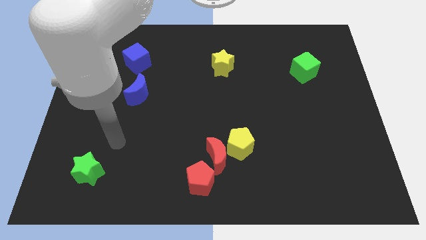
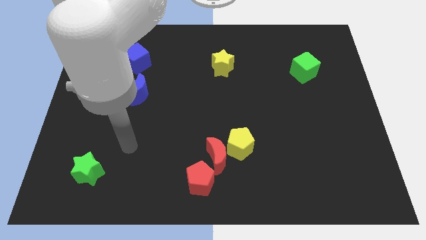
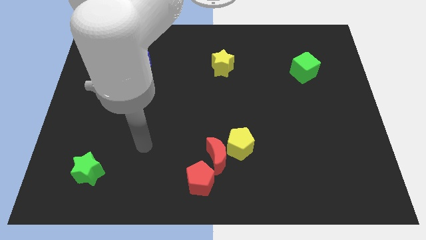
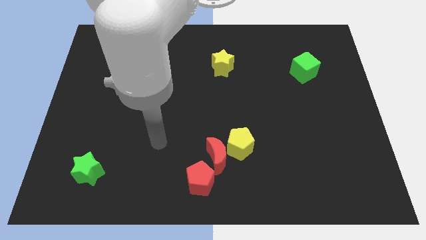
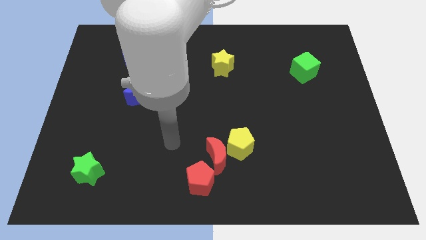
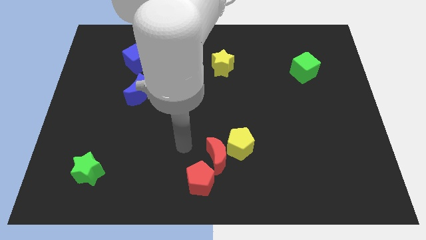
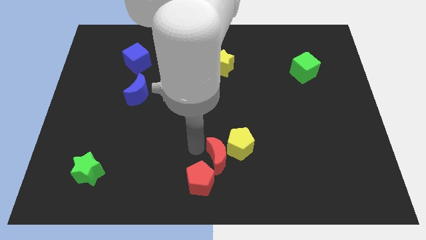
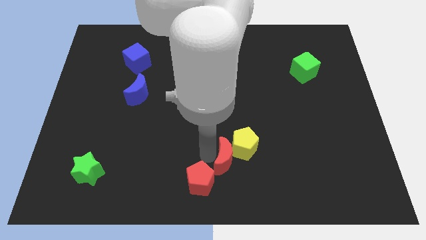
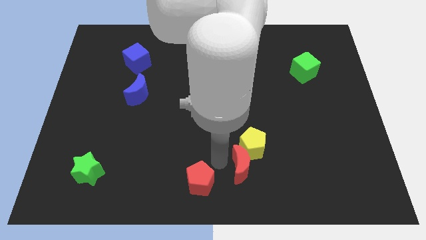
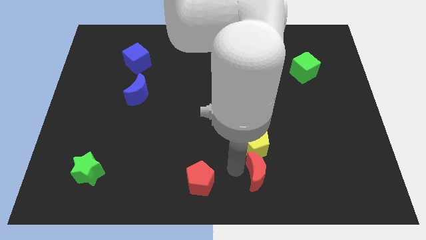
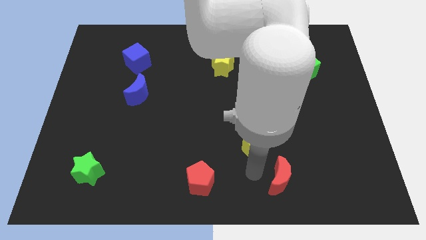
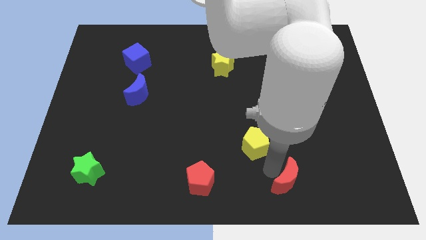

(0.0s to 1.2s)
pull the yellow pentagon apart from the red moon

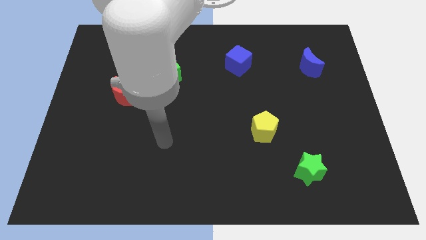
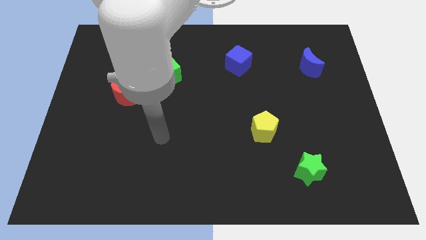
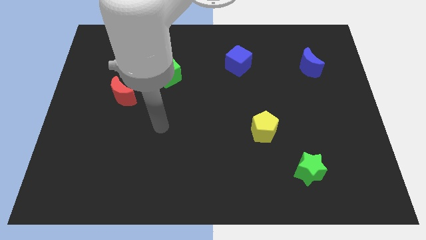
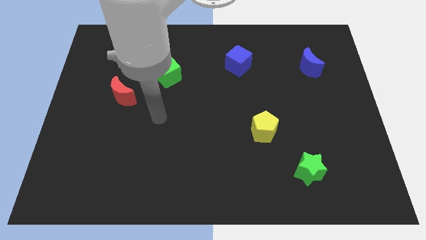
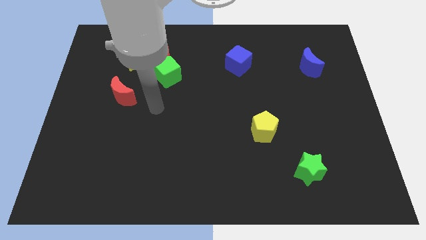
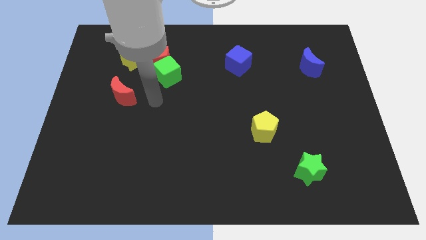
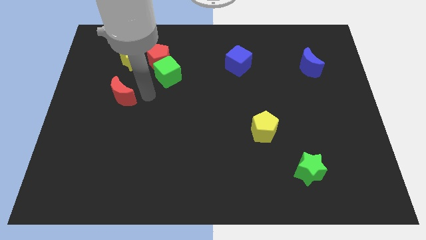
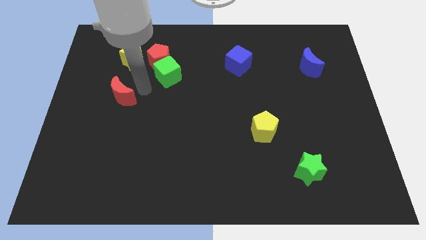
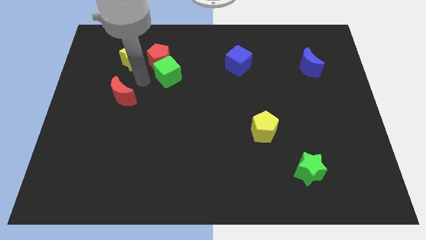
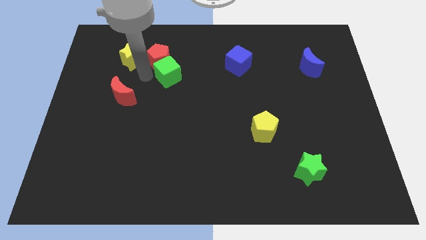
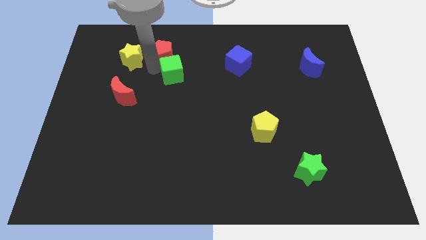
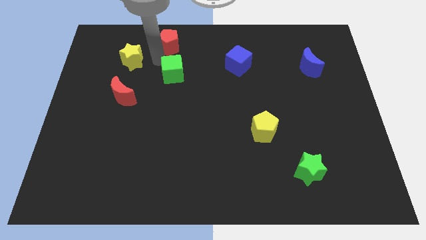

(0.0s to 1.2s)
separate the green cube from the red pentagon

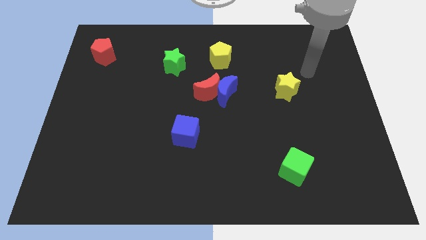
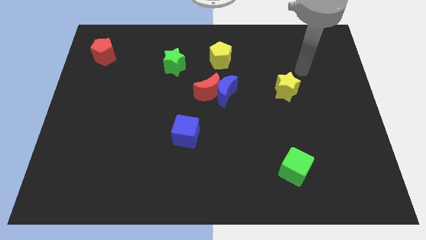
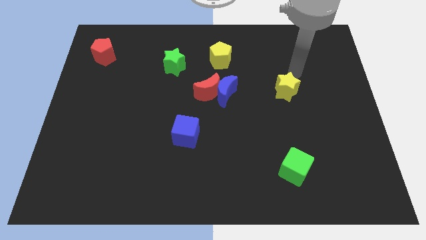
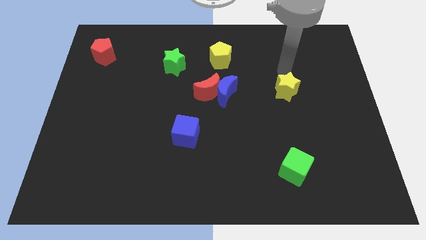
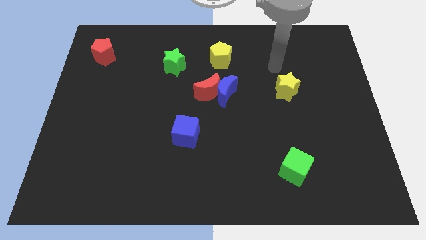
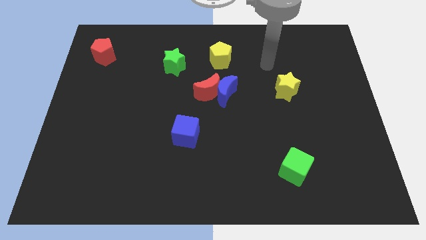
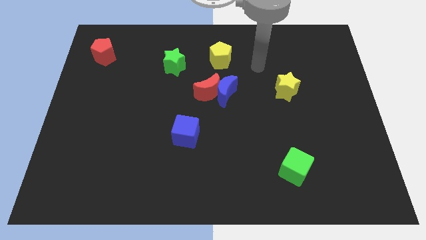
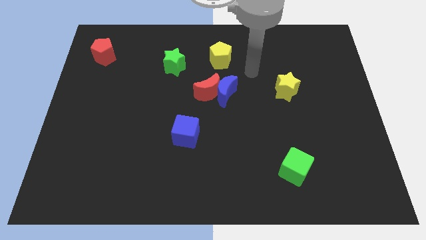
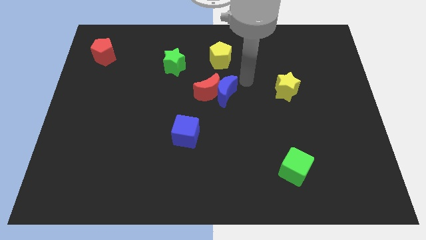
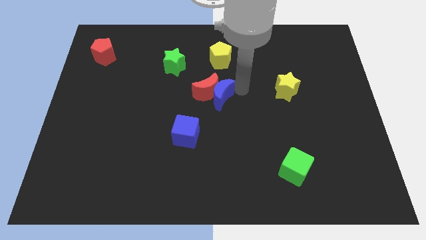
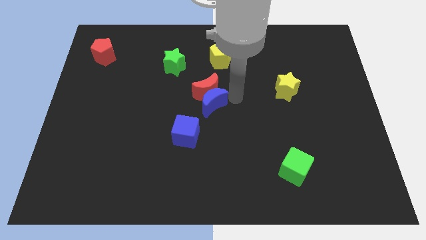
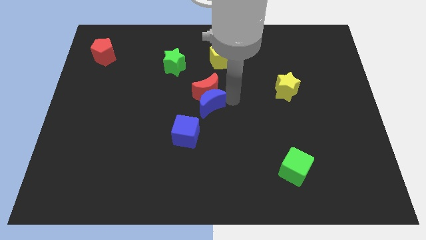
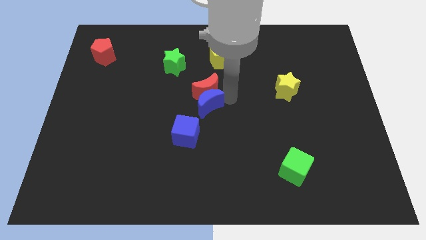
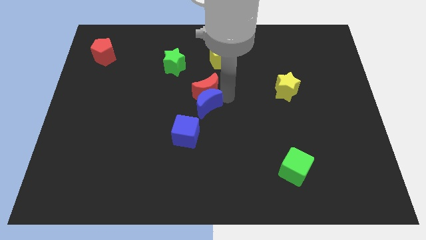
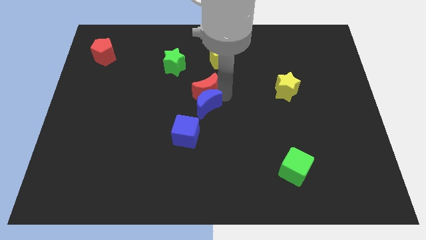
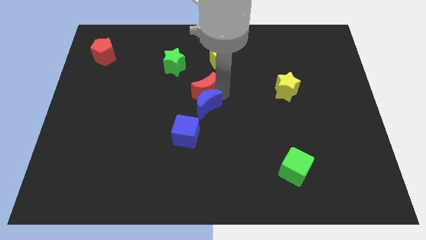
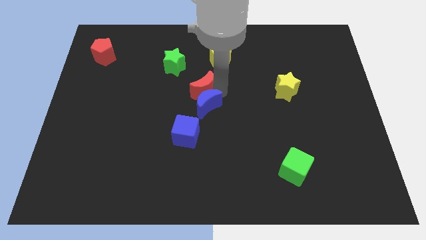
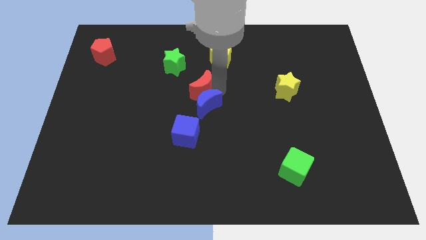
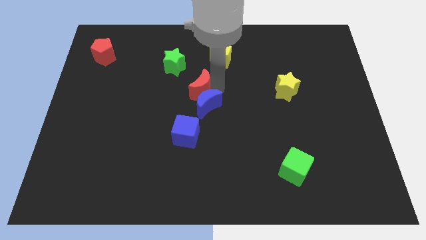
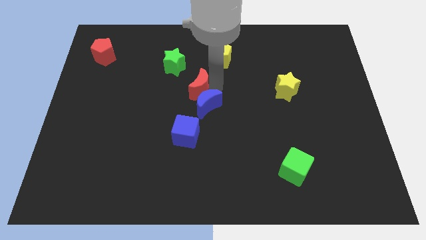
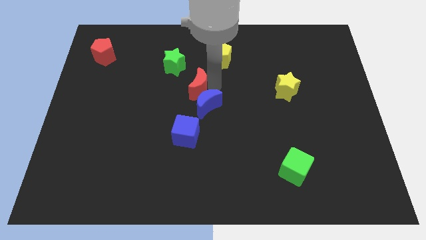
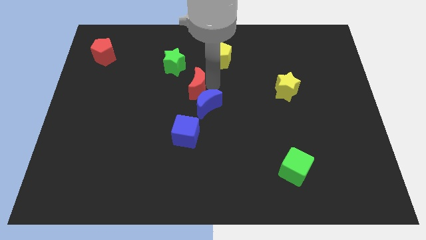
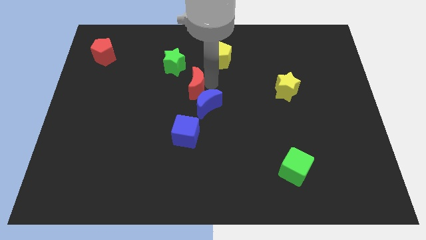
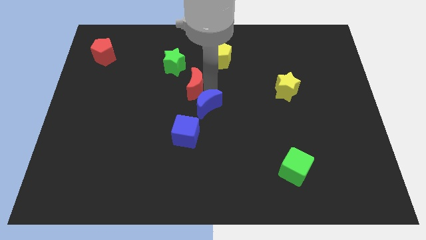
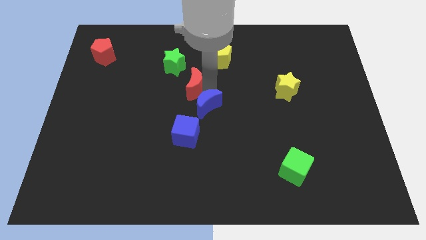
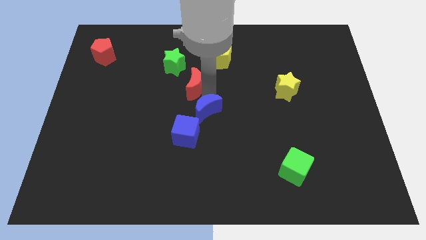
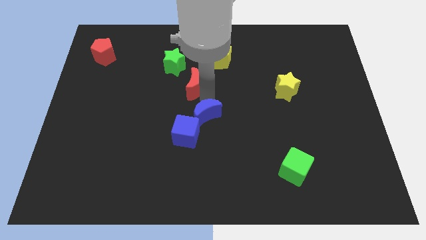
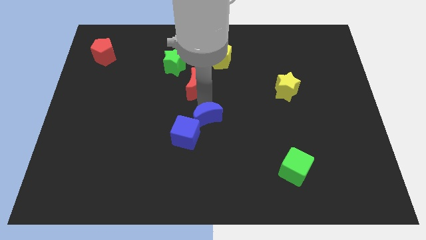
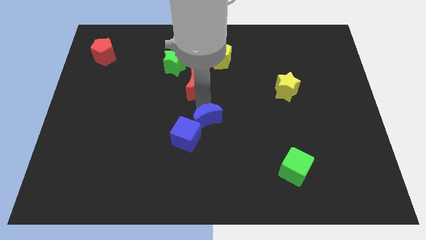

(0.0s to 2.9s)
move the red moon away from the blue moon

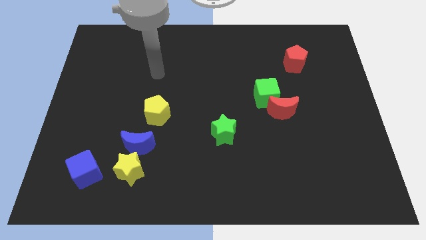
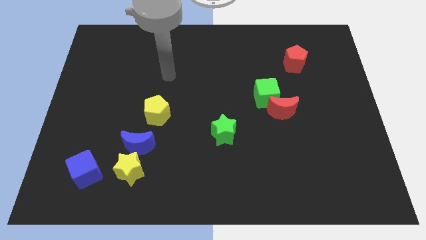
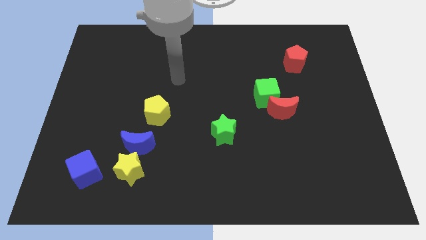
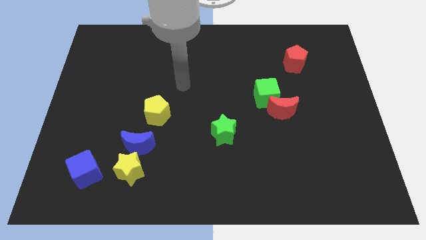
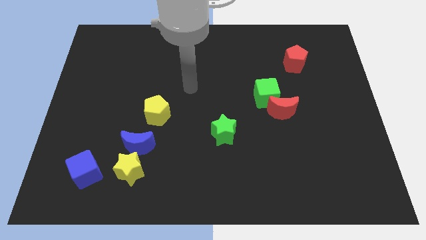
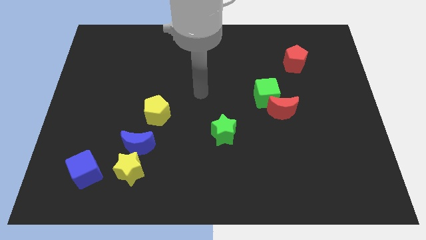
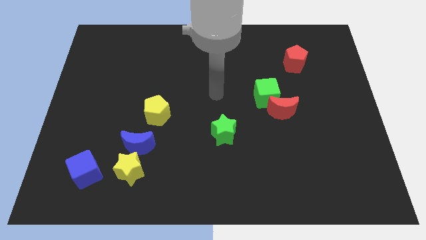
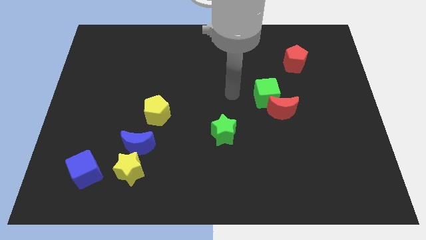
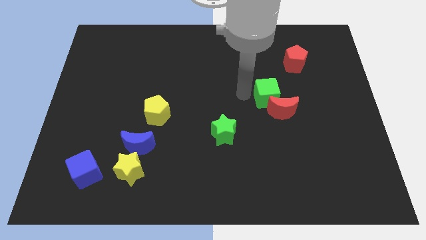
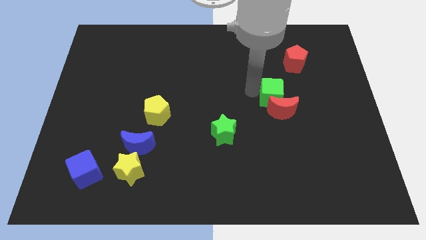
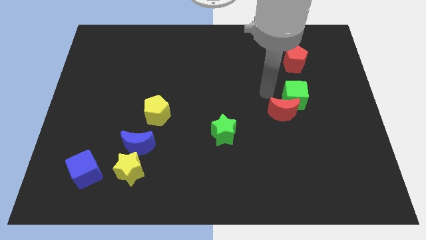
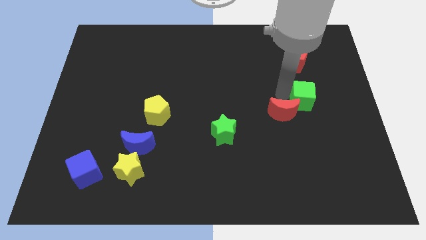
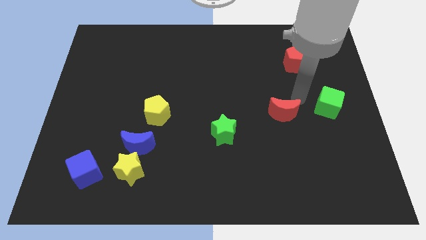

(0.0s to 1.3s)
move the red moon away from the green cube

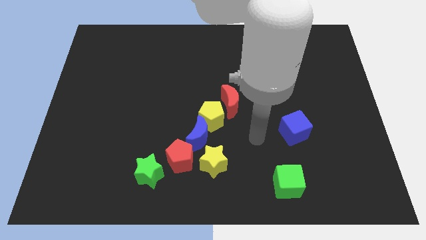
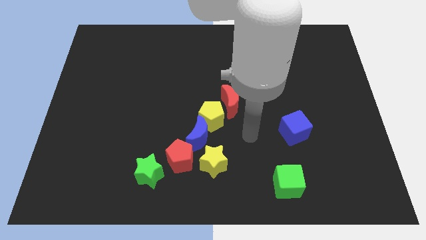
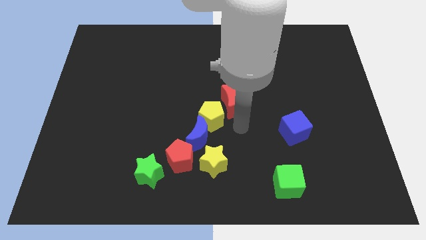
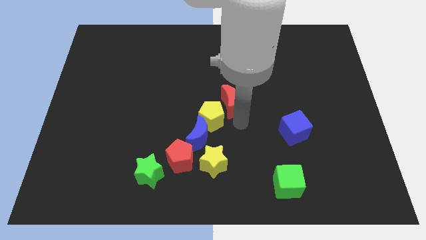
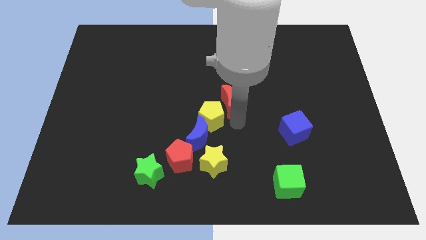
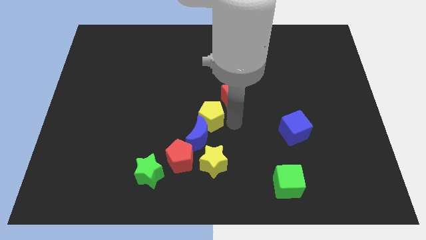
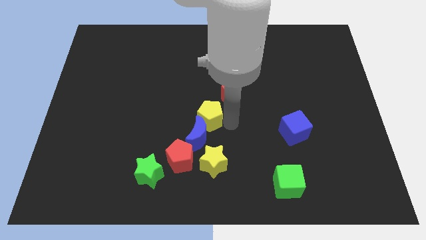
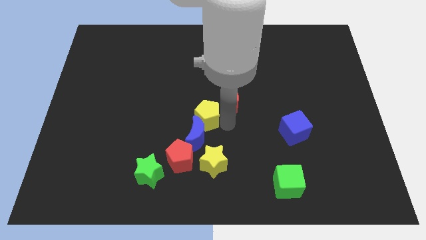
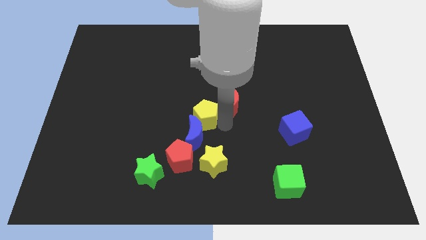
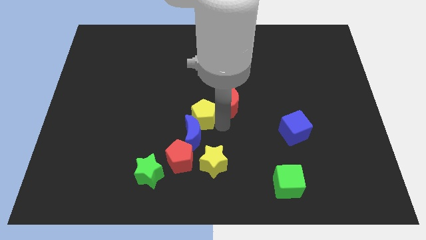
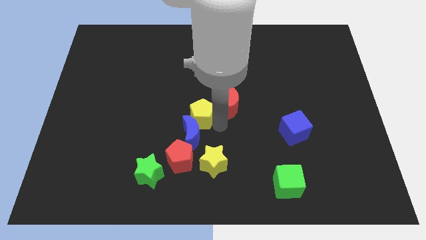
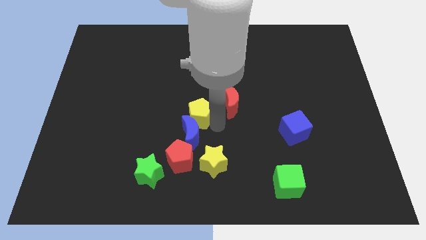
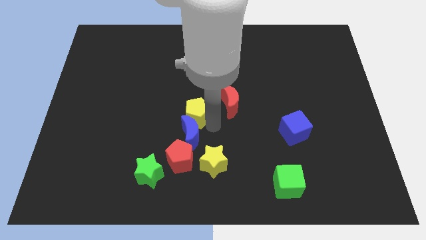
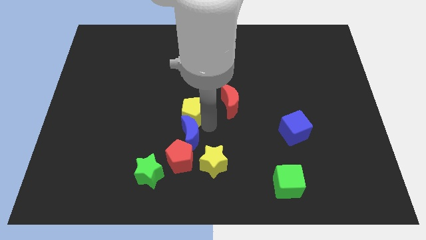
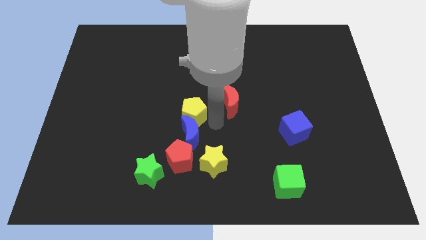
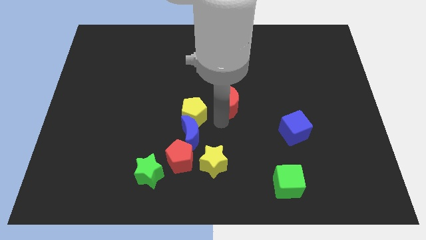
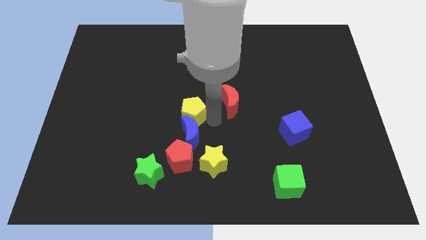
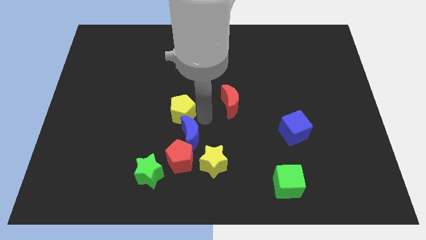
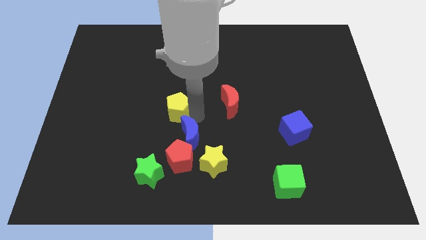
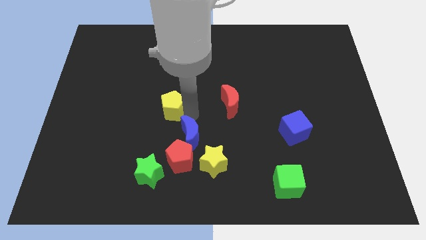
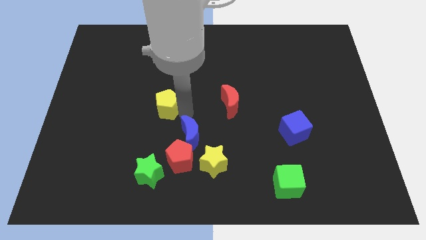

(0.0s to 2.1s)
pull the yellow pentagon apart from the blue moon and red moon

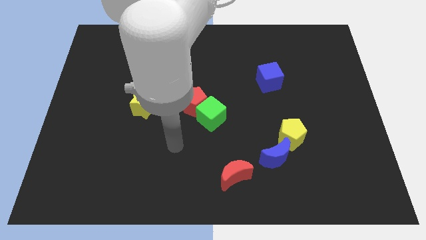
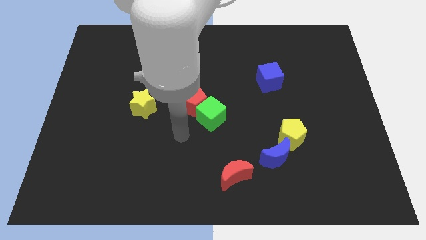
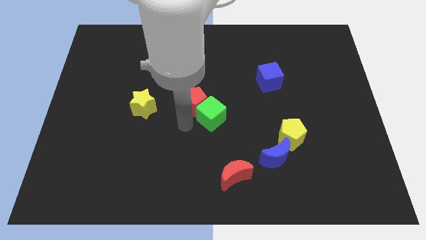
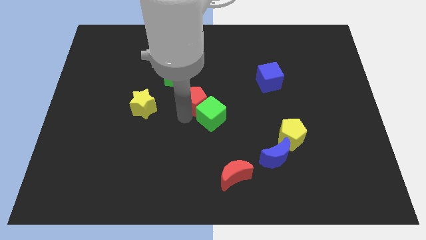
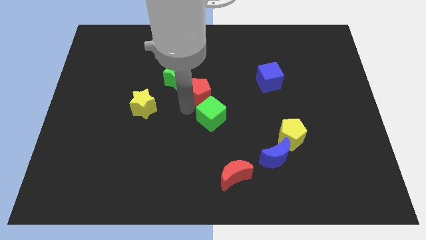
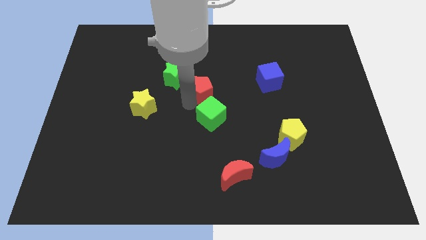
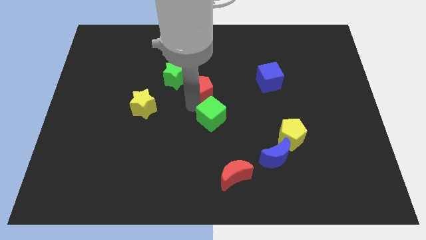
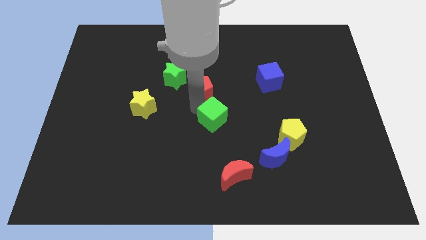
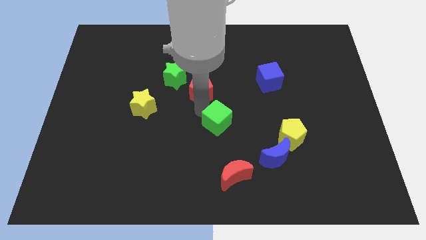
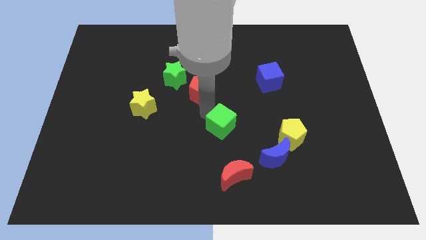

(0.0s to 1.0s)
move the green cube away from the red pentagon
